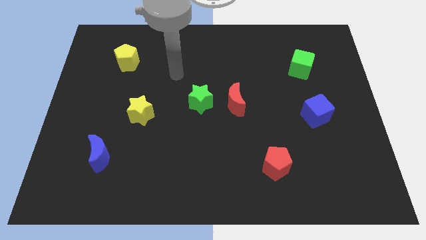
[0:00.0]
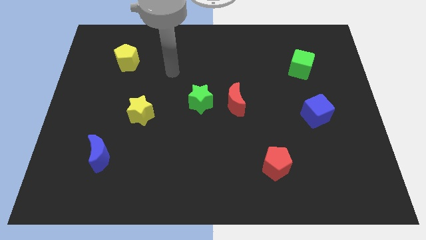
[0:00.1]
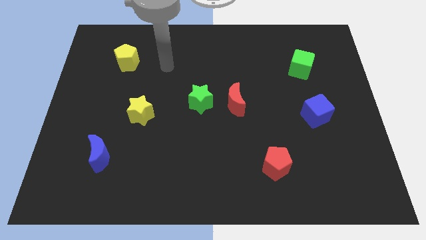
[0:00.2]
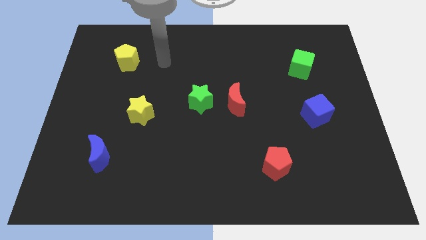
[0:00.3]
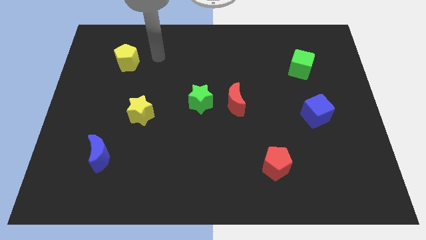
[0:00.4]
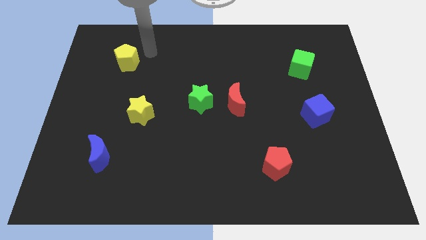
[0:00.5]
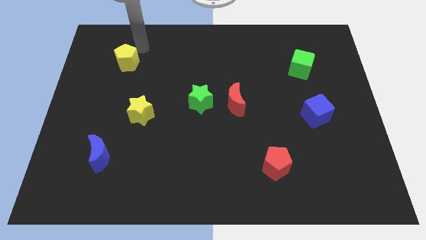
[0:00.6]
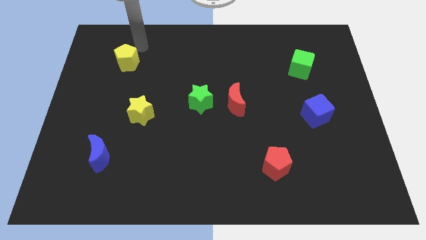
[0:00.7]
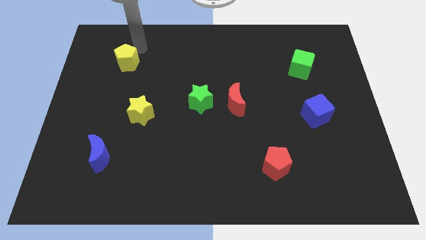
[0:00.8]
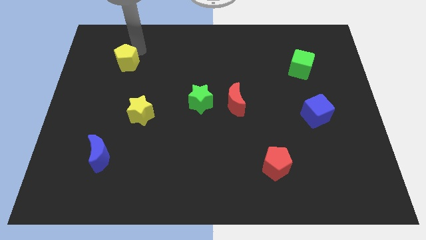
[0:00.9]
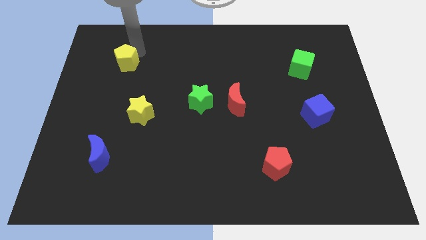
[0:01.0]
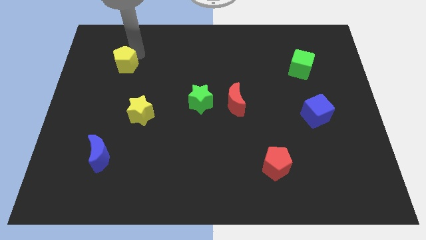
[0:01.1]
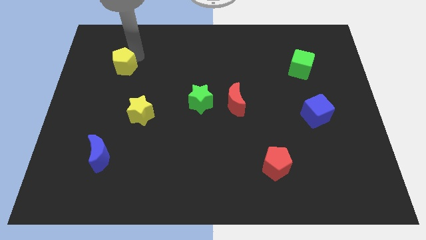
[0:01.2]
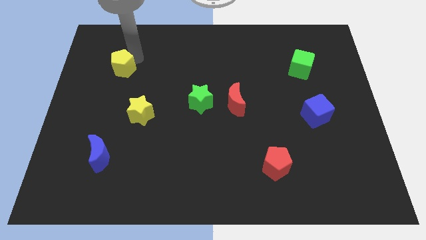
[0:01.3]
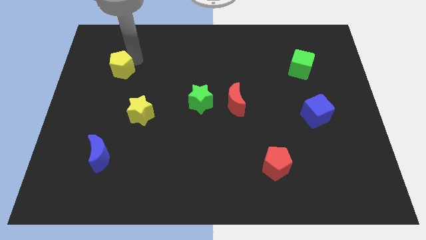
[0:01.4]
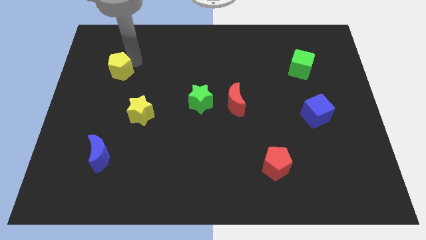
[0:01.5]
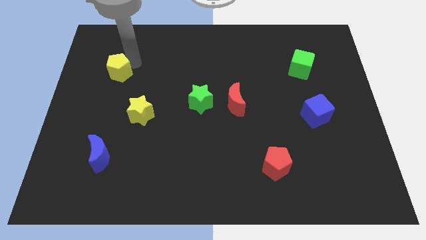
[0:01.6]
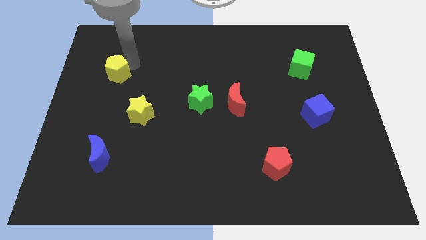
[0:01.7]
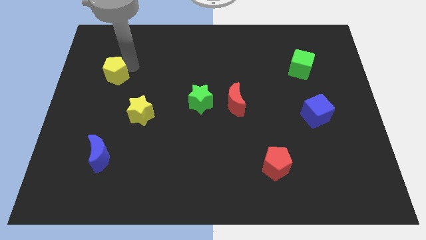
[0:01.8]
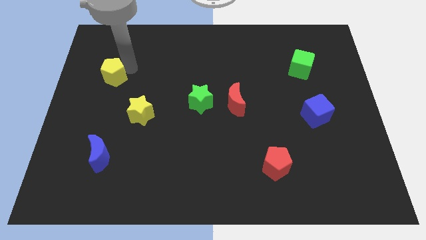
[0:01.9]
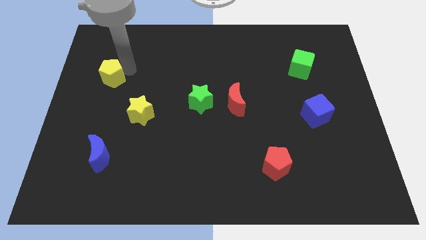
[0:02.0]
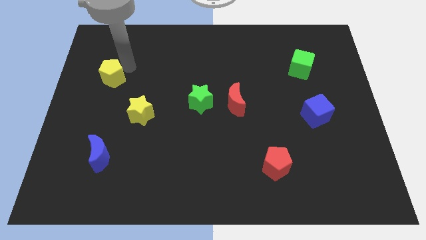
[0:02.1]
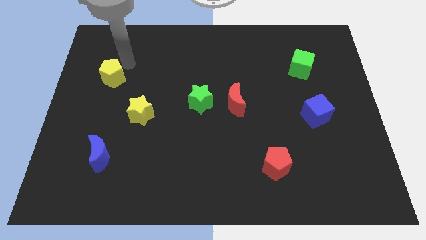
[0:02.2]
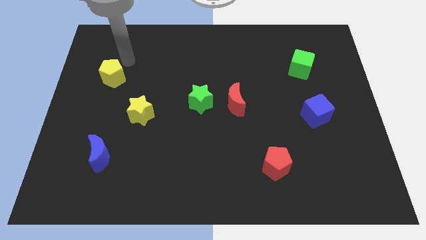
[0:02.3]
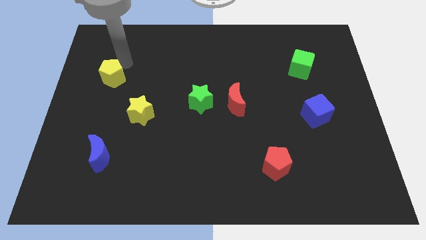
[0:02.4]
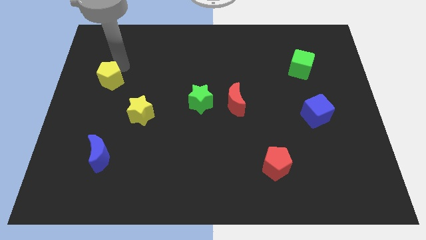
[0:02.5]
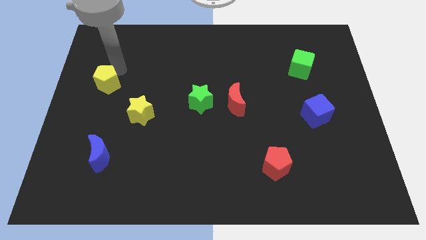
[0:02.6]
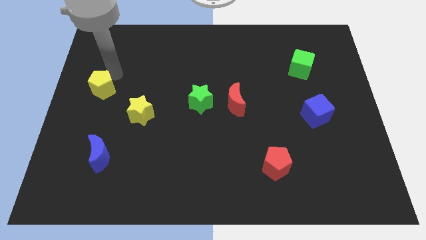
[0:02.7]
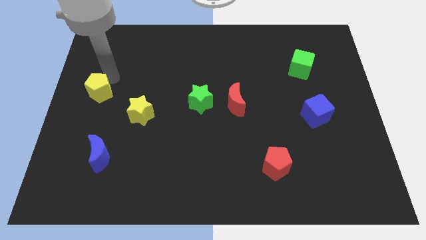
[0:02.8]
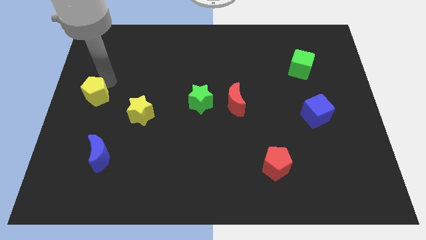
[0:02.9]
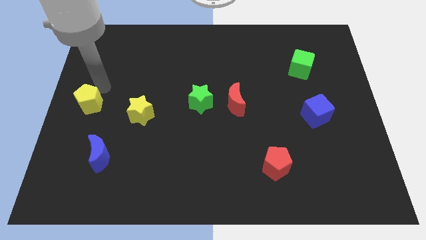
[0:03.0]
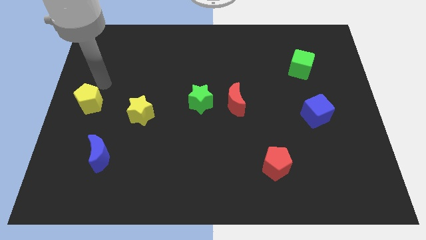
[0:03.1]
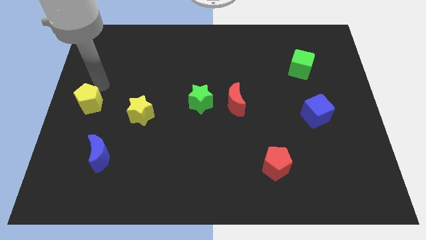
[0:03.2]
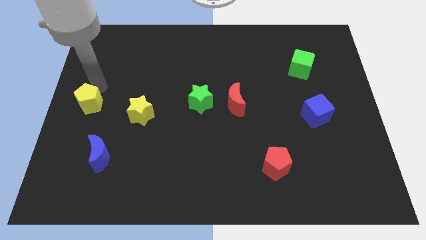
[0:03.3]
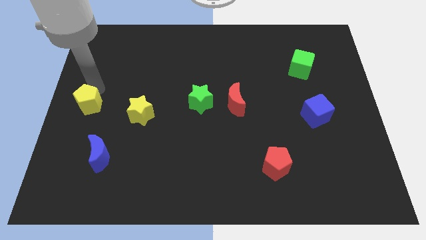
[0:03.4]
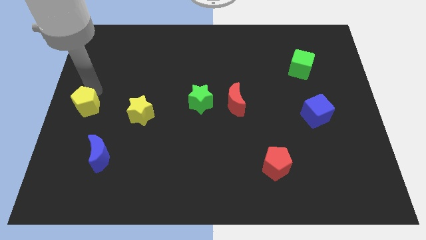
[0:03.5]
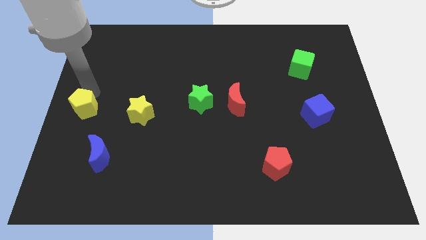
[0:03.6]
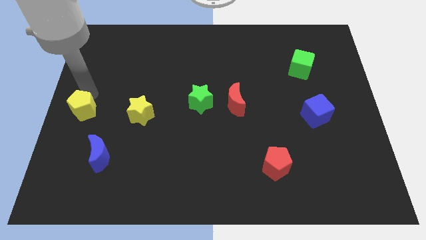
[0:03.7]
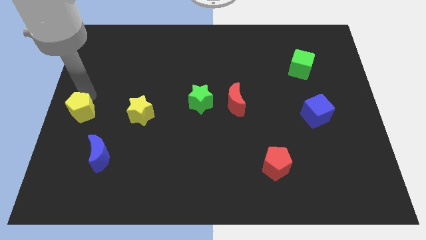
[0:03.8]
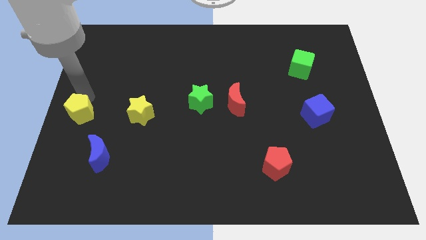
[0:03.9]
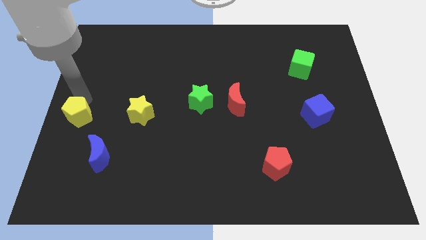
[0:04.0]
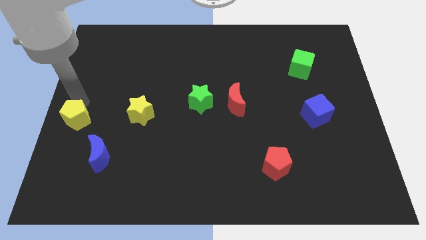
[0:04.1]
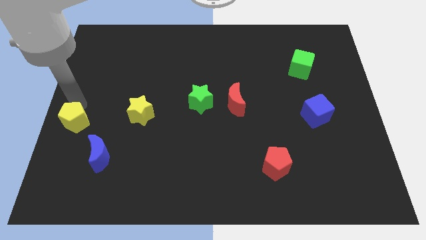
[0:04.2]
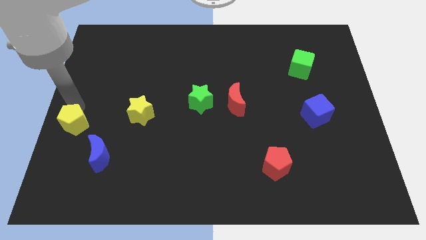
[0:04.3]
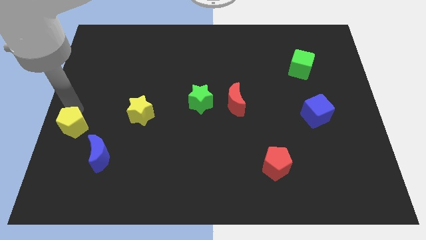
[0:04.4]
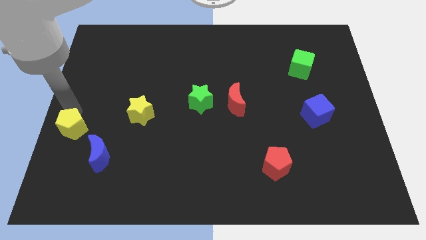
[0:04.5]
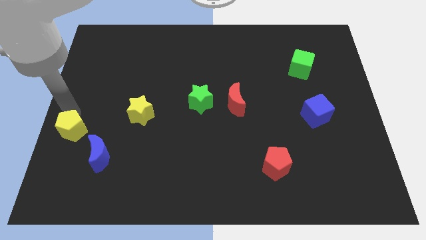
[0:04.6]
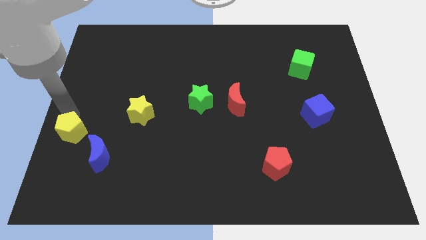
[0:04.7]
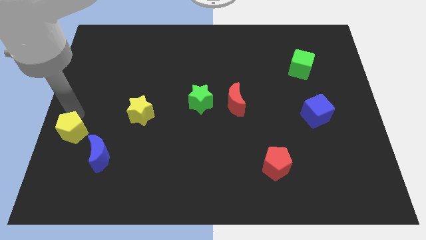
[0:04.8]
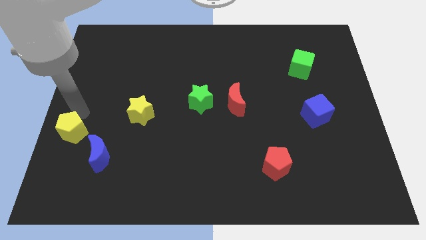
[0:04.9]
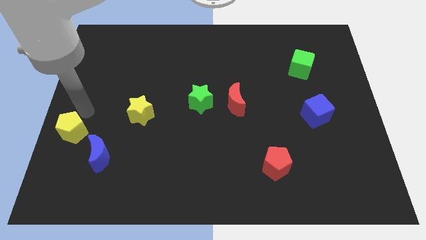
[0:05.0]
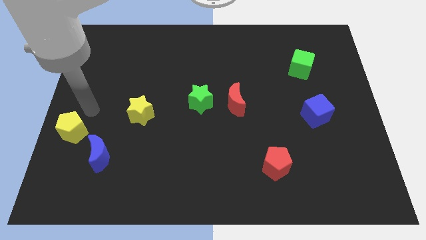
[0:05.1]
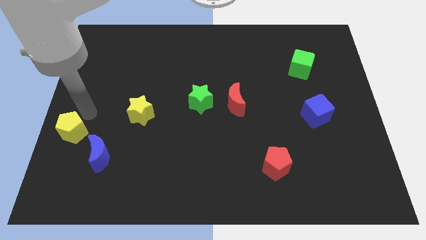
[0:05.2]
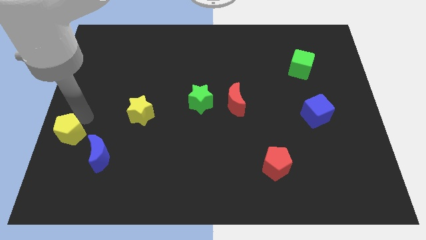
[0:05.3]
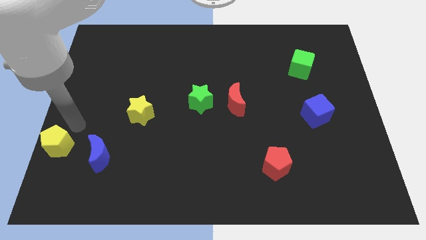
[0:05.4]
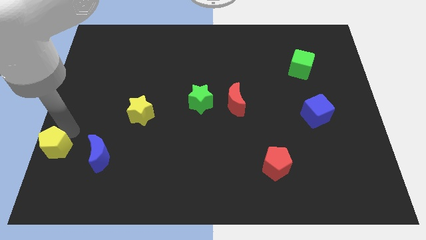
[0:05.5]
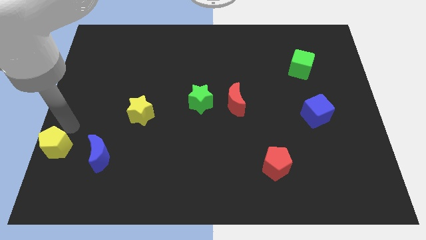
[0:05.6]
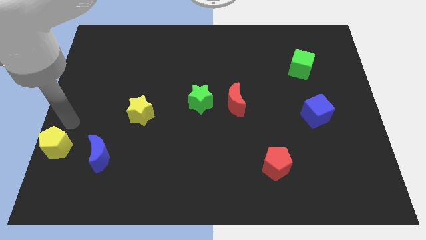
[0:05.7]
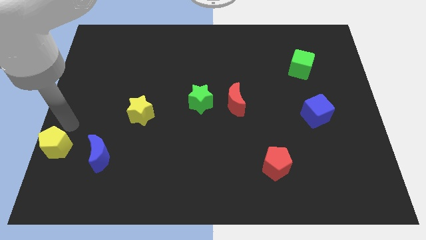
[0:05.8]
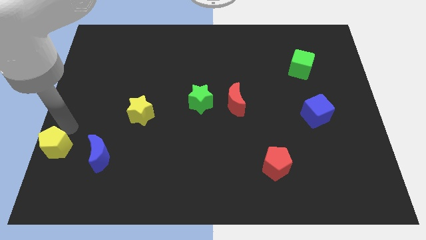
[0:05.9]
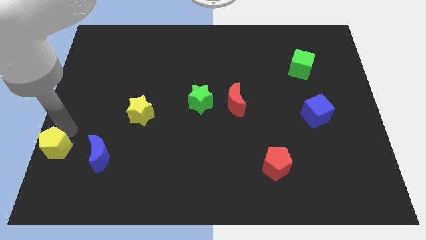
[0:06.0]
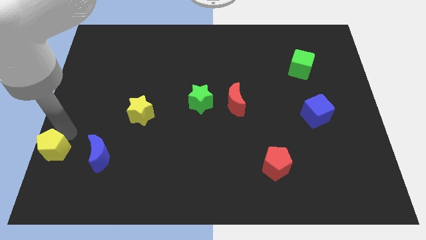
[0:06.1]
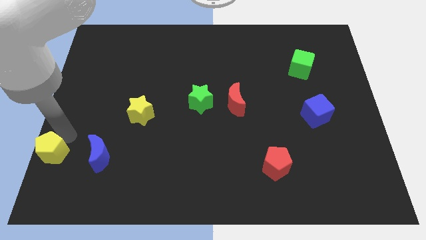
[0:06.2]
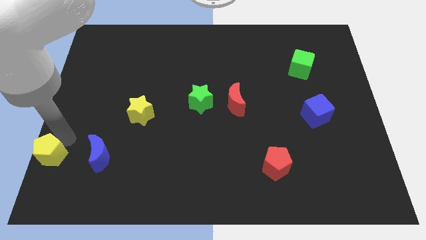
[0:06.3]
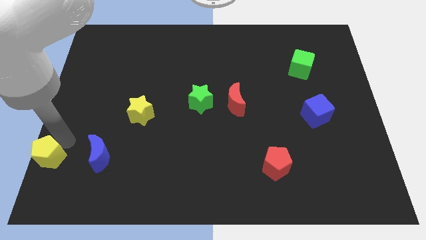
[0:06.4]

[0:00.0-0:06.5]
push the yellow pentagon to the bottom left
